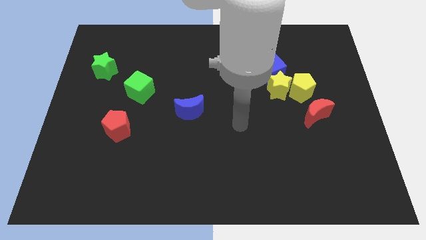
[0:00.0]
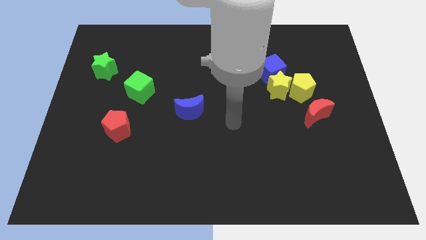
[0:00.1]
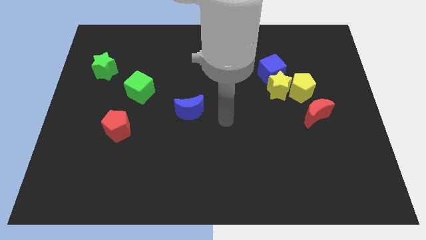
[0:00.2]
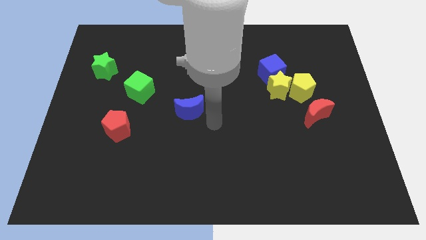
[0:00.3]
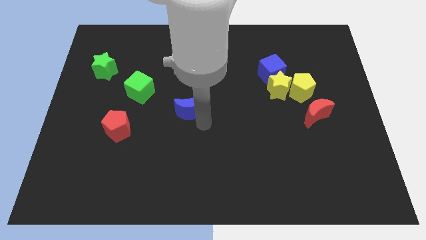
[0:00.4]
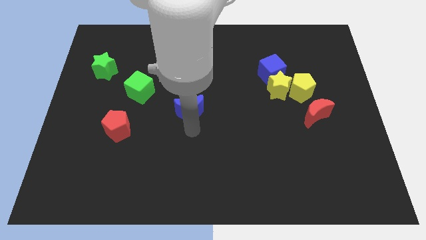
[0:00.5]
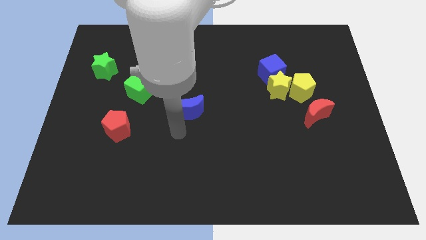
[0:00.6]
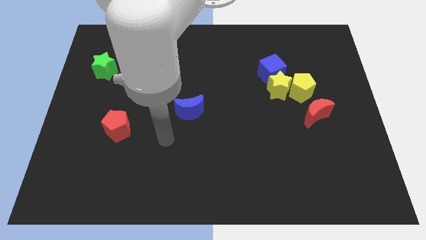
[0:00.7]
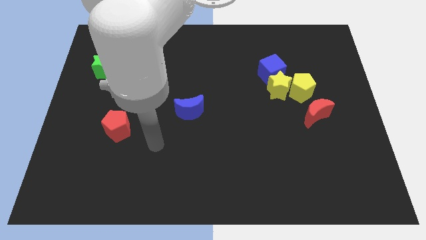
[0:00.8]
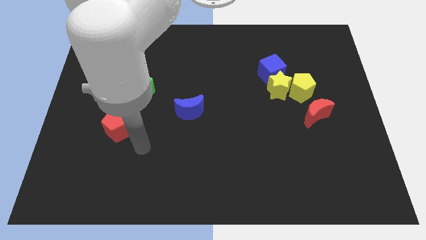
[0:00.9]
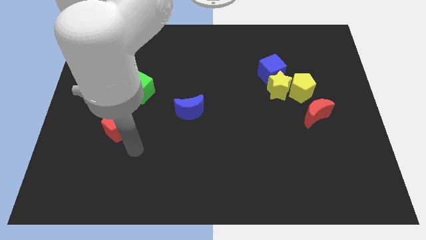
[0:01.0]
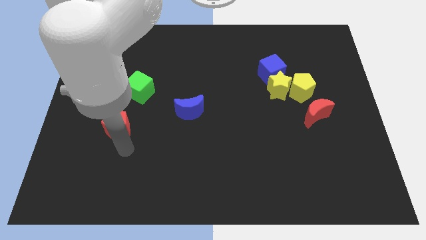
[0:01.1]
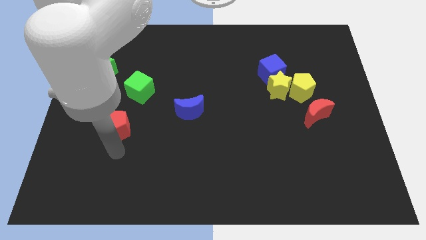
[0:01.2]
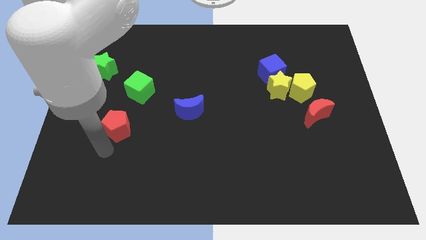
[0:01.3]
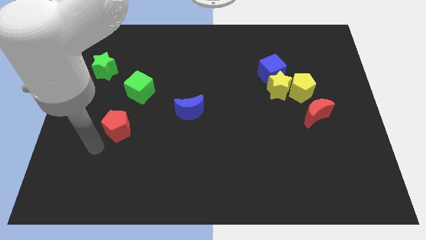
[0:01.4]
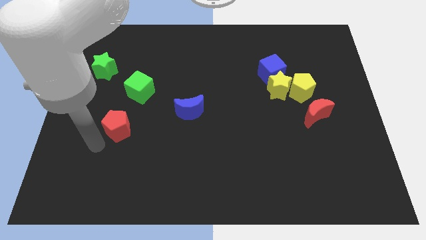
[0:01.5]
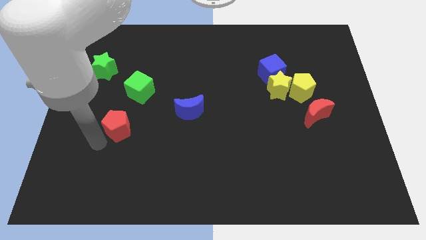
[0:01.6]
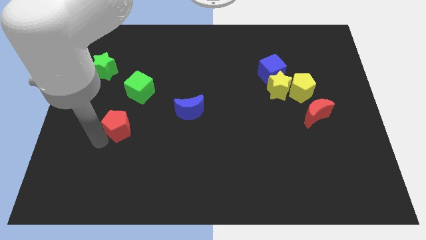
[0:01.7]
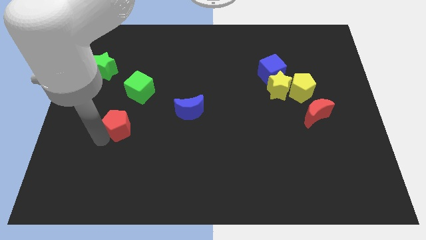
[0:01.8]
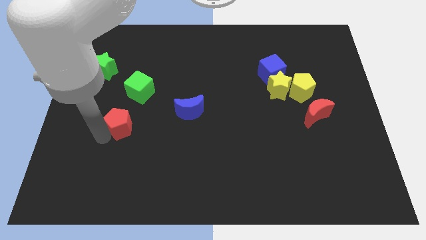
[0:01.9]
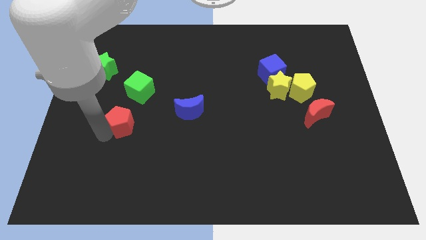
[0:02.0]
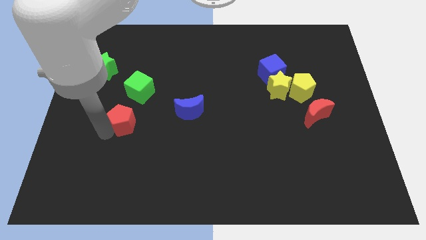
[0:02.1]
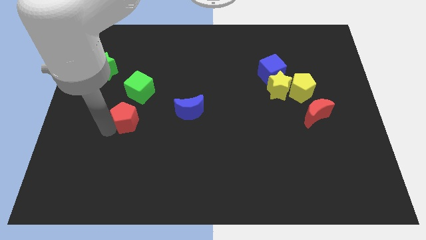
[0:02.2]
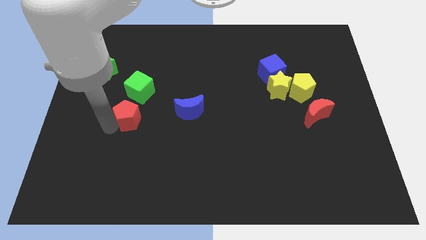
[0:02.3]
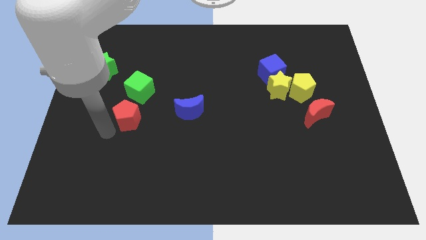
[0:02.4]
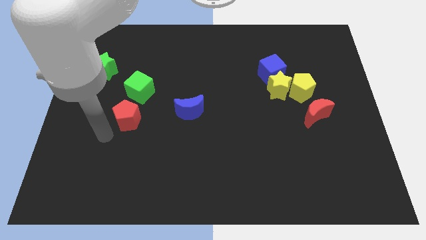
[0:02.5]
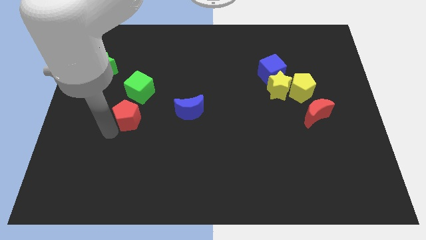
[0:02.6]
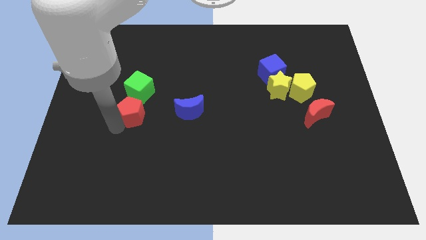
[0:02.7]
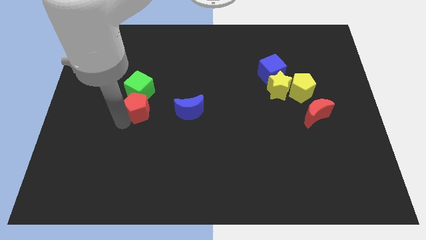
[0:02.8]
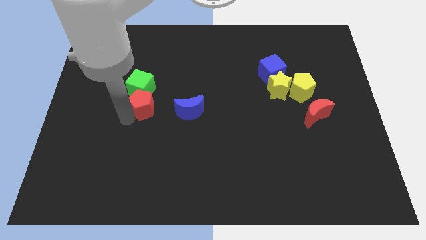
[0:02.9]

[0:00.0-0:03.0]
slide the red pentagon diagonally up and to the right a little bit

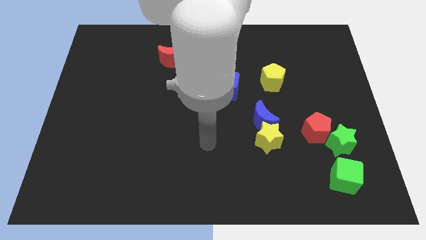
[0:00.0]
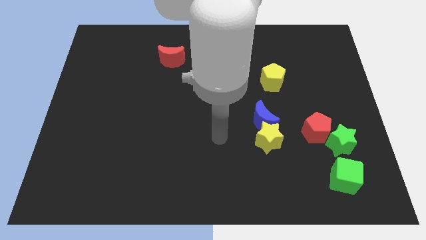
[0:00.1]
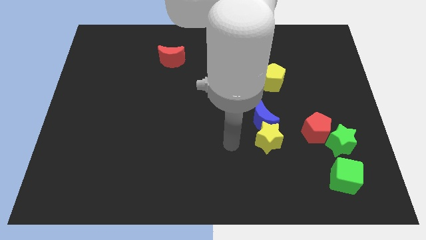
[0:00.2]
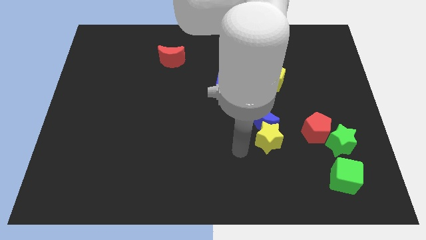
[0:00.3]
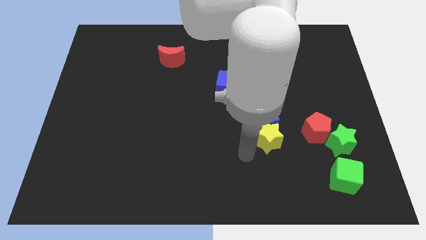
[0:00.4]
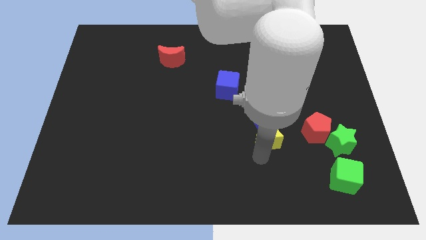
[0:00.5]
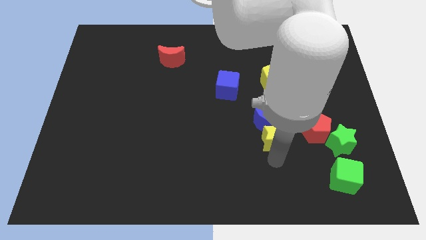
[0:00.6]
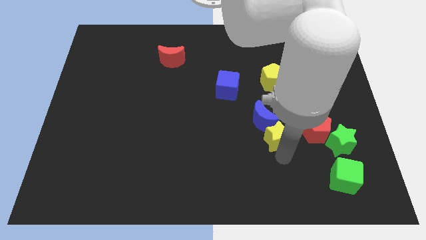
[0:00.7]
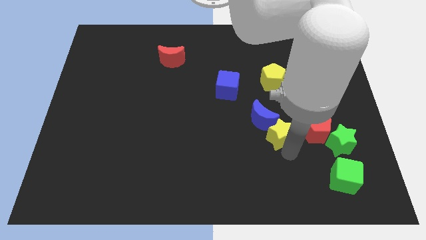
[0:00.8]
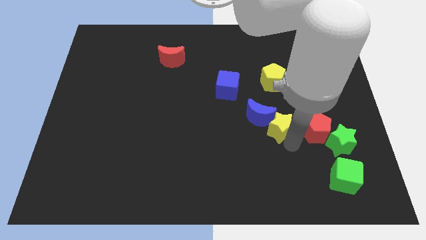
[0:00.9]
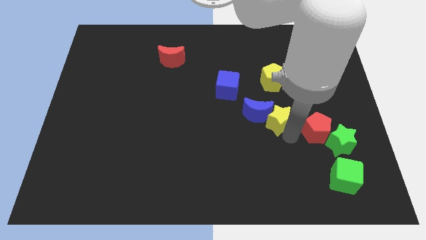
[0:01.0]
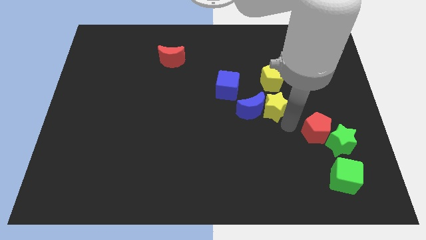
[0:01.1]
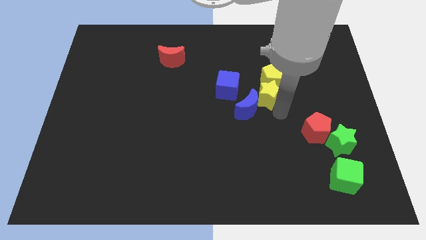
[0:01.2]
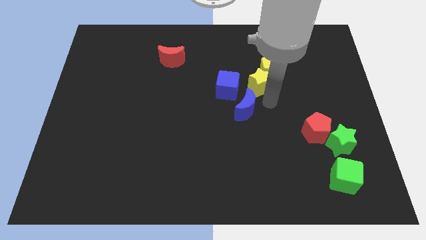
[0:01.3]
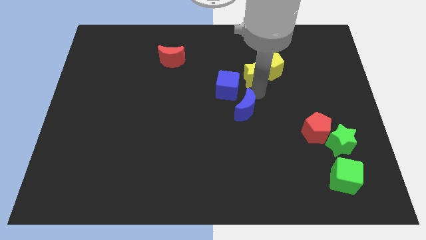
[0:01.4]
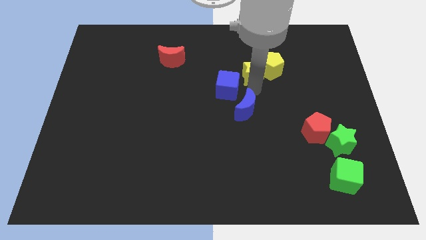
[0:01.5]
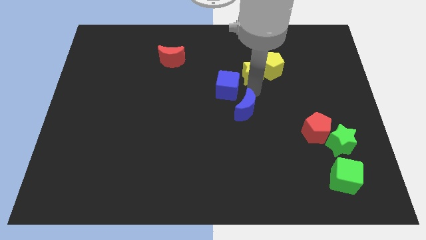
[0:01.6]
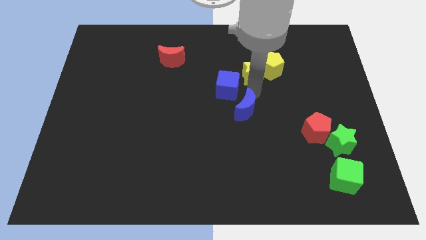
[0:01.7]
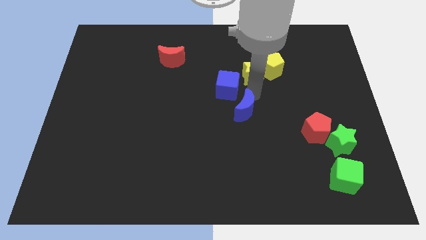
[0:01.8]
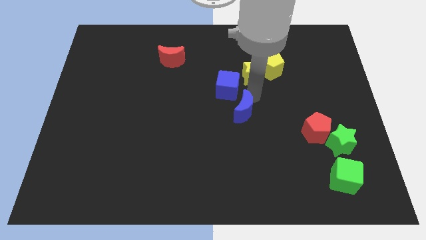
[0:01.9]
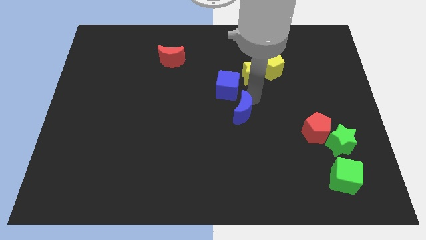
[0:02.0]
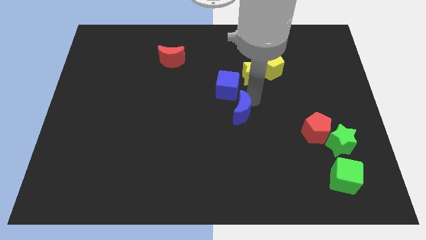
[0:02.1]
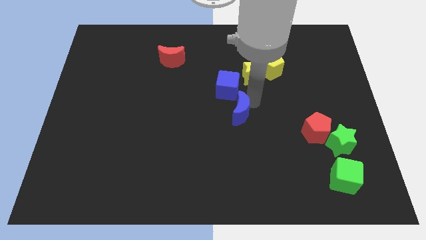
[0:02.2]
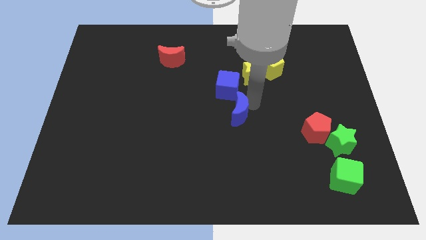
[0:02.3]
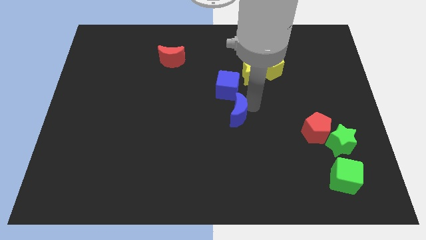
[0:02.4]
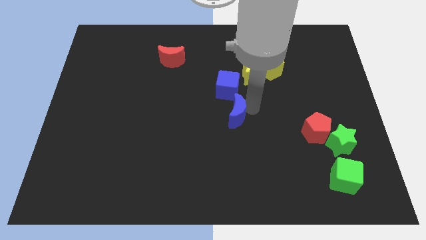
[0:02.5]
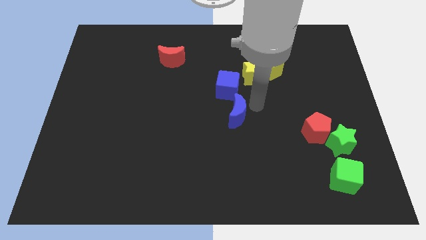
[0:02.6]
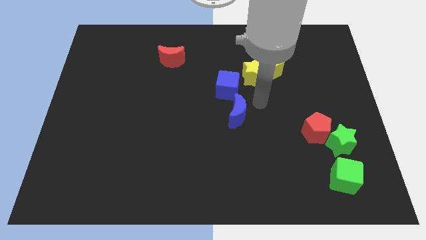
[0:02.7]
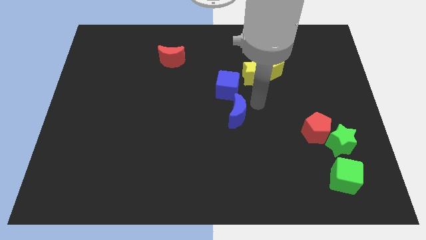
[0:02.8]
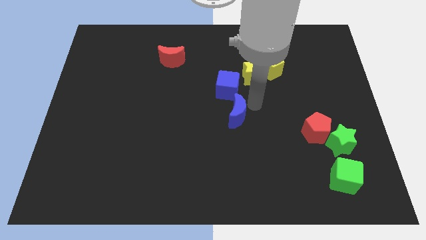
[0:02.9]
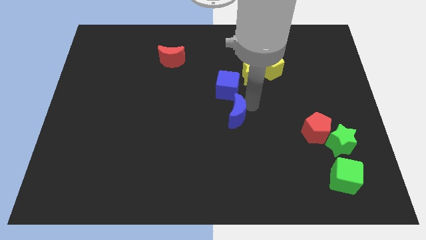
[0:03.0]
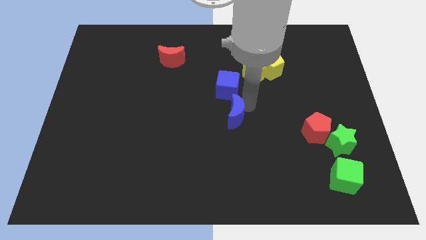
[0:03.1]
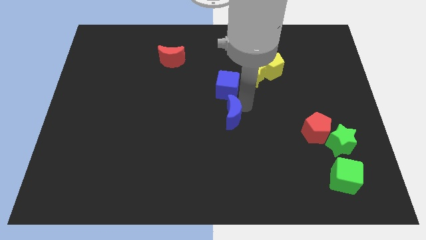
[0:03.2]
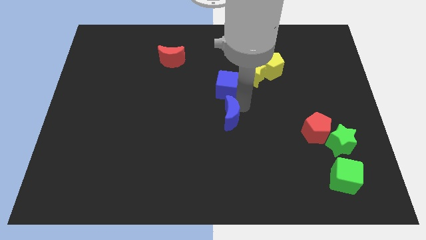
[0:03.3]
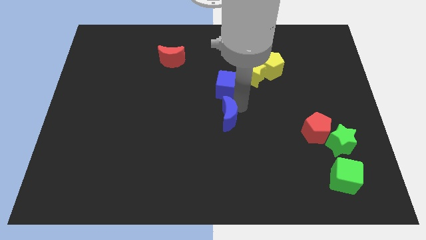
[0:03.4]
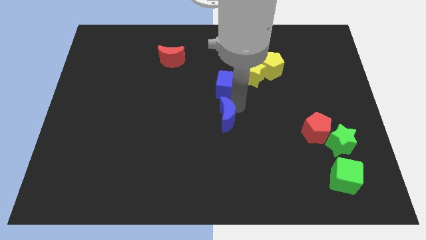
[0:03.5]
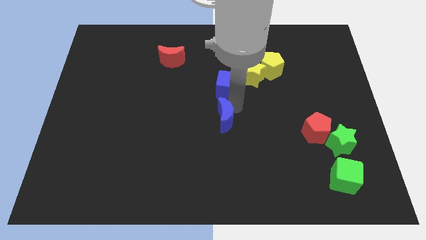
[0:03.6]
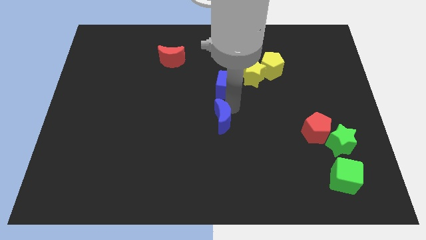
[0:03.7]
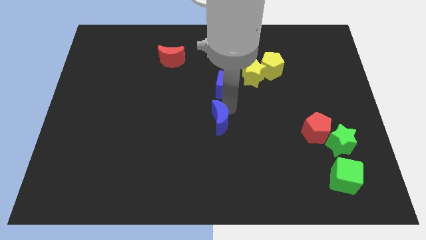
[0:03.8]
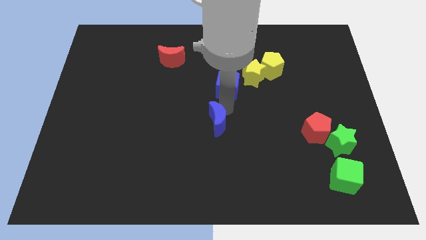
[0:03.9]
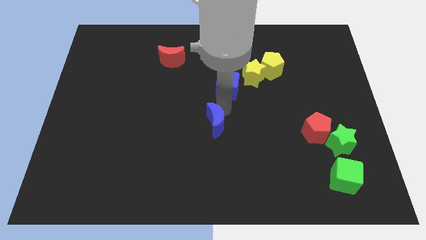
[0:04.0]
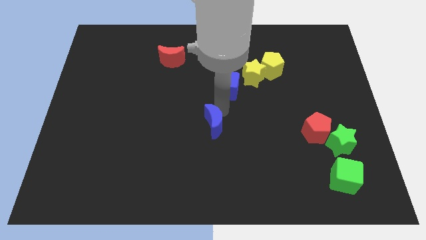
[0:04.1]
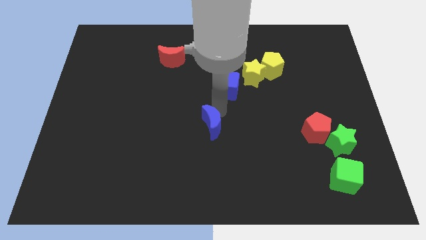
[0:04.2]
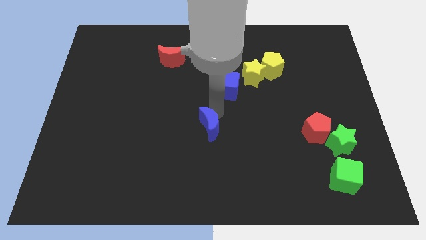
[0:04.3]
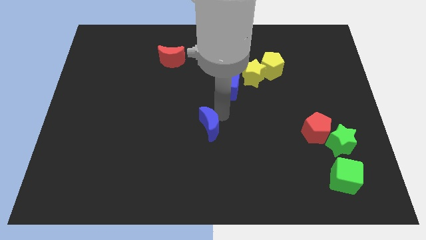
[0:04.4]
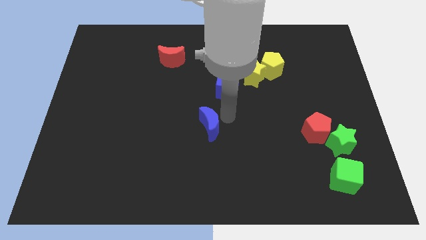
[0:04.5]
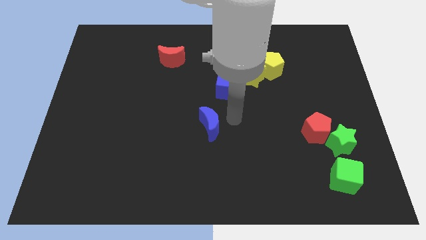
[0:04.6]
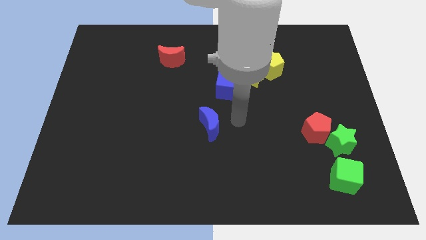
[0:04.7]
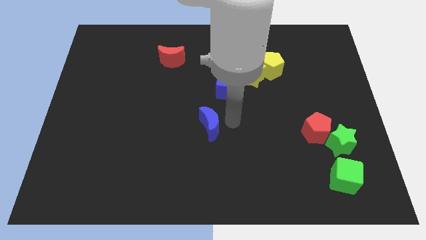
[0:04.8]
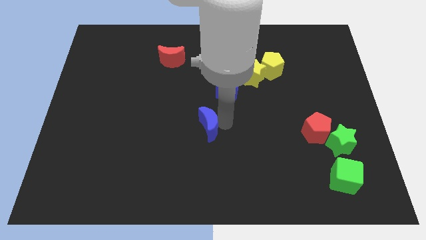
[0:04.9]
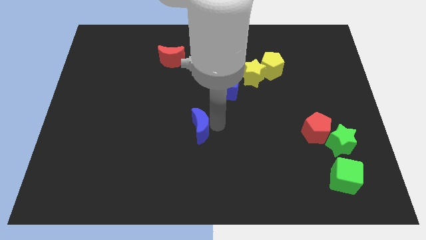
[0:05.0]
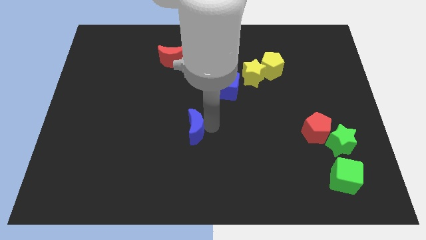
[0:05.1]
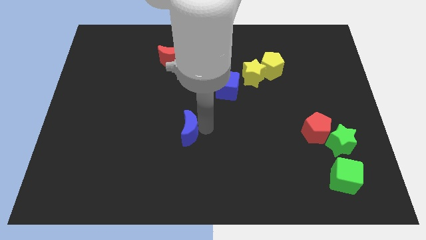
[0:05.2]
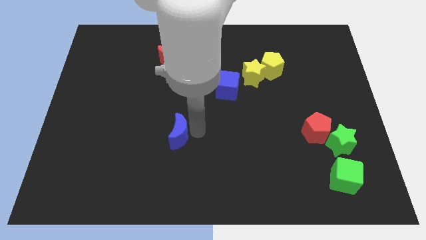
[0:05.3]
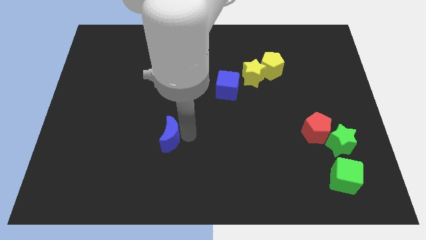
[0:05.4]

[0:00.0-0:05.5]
move the blue moon left
